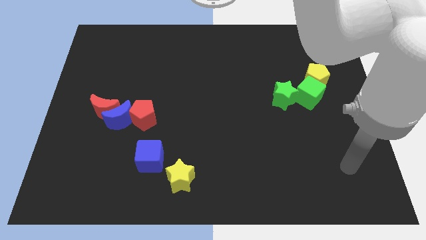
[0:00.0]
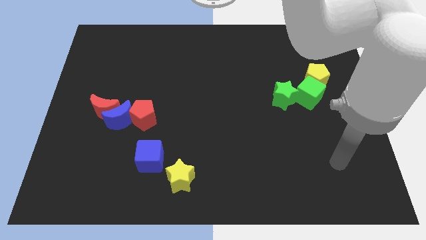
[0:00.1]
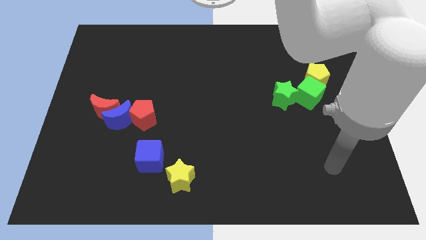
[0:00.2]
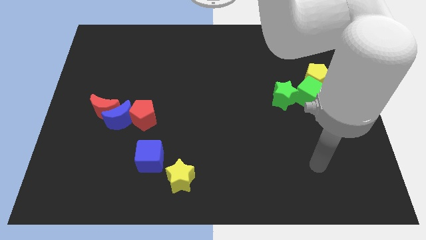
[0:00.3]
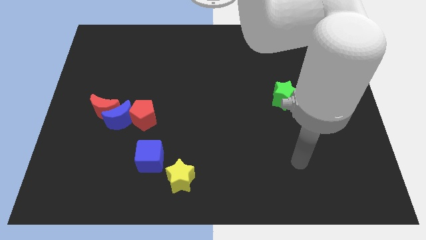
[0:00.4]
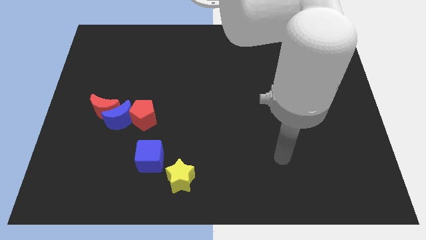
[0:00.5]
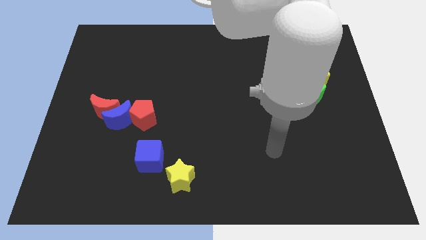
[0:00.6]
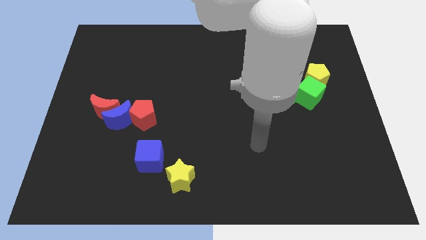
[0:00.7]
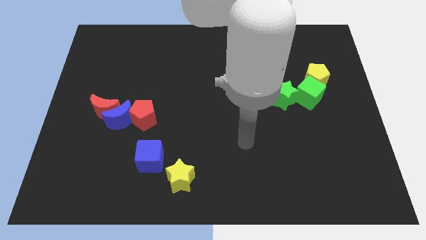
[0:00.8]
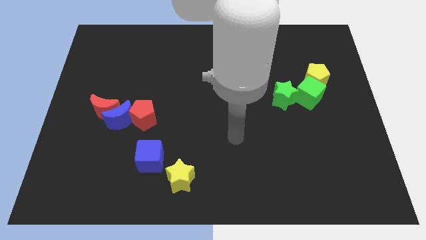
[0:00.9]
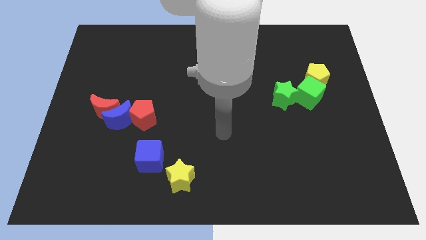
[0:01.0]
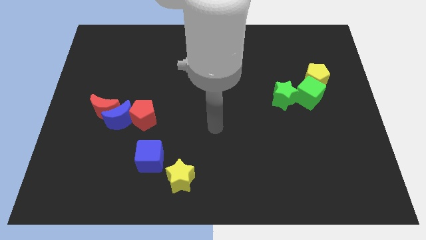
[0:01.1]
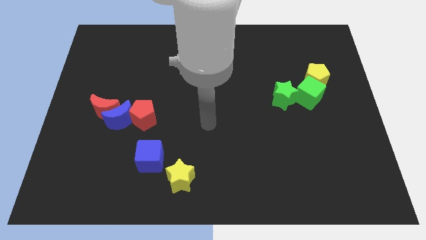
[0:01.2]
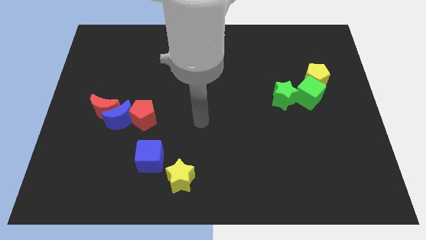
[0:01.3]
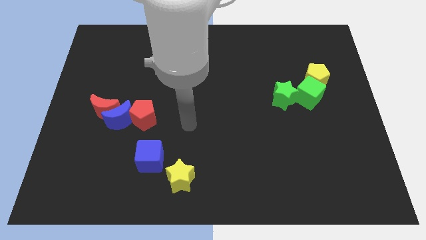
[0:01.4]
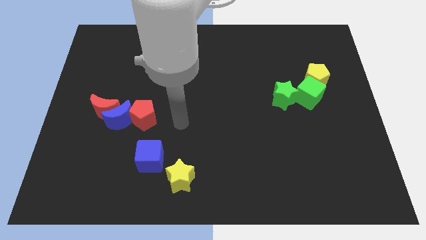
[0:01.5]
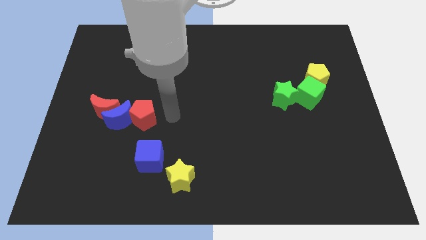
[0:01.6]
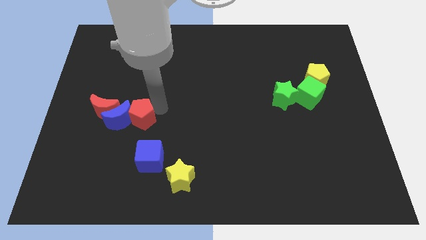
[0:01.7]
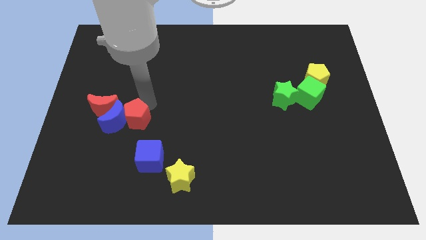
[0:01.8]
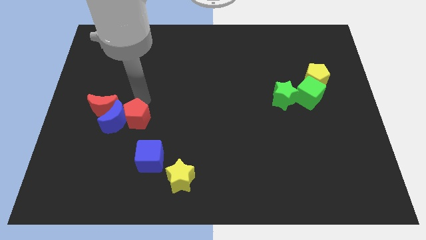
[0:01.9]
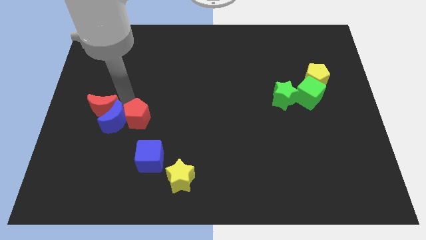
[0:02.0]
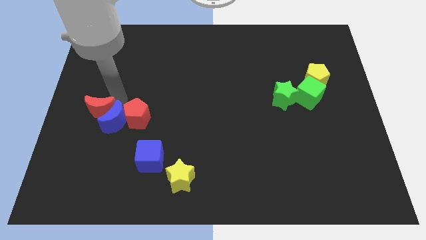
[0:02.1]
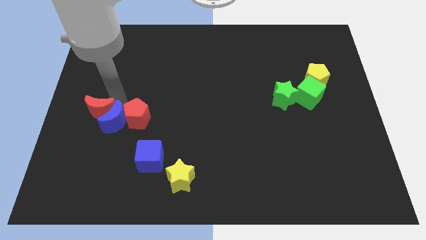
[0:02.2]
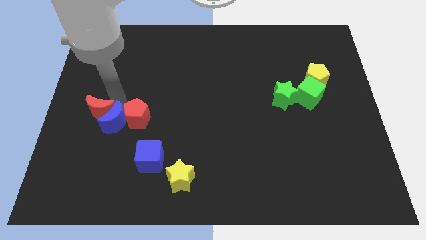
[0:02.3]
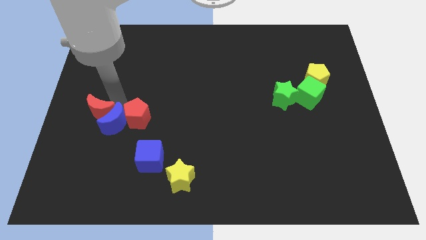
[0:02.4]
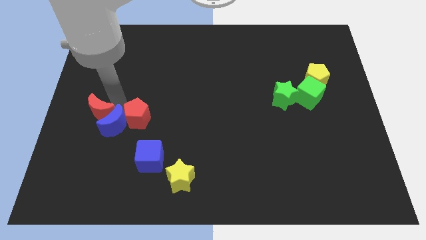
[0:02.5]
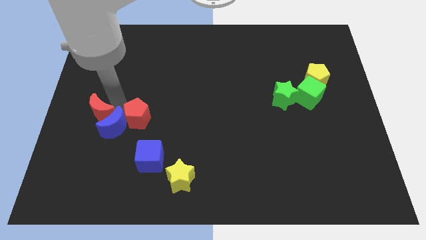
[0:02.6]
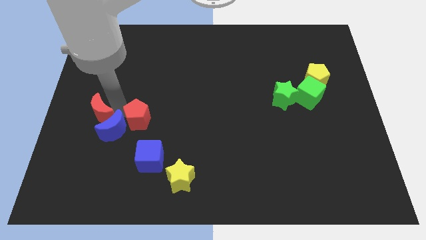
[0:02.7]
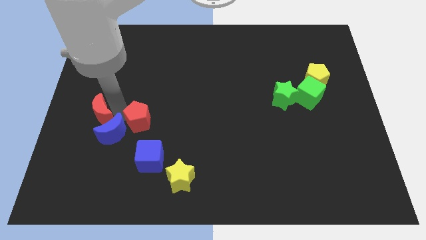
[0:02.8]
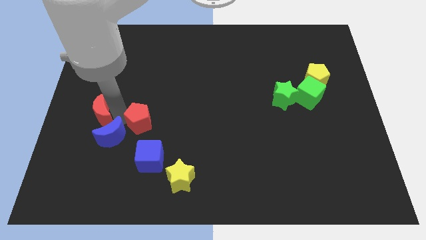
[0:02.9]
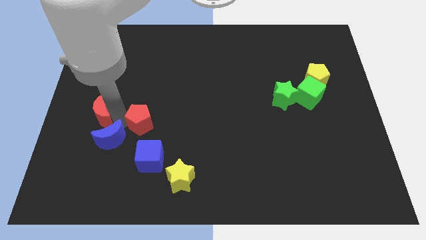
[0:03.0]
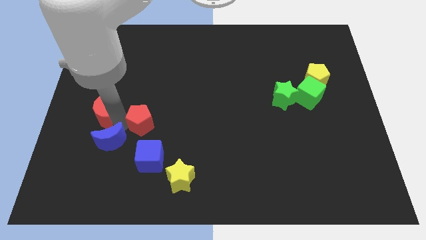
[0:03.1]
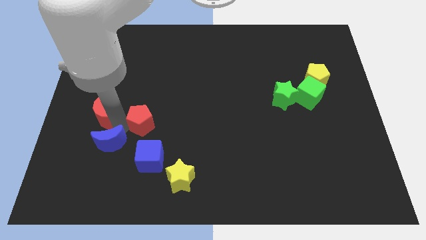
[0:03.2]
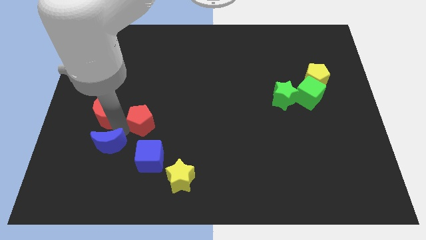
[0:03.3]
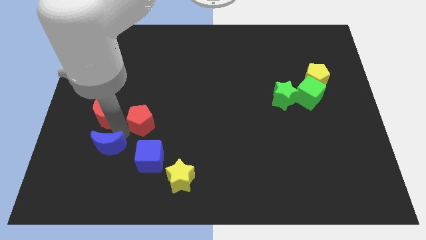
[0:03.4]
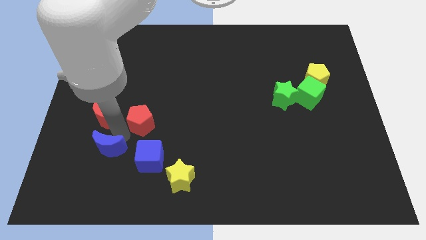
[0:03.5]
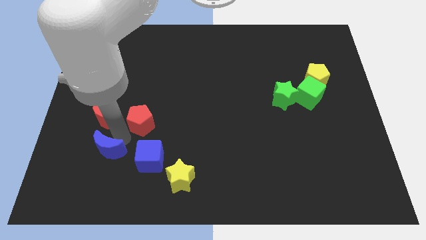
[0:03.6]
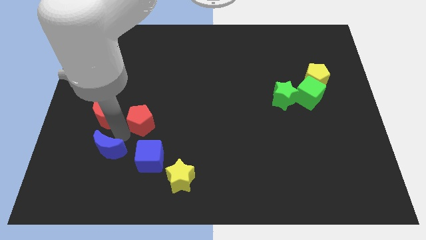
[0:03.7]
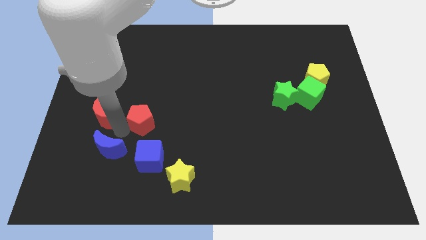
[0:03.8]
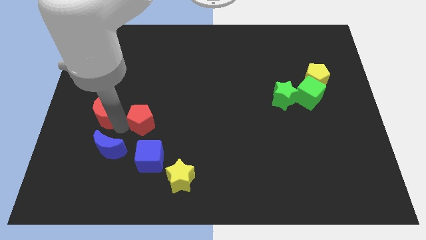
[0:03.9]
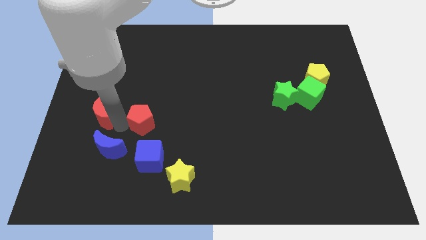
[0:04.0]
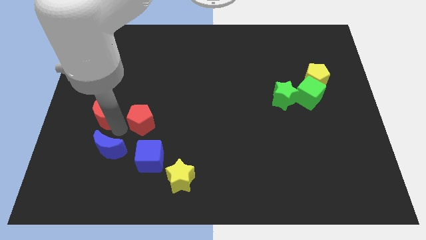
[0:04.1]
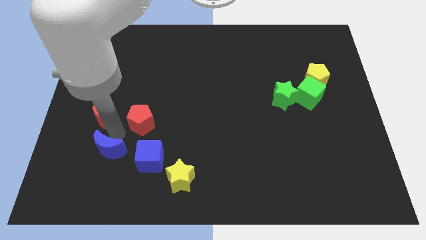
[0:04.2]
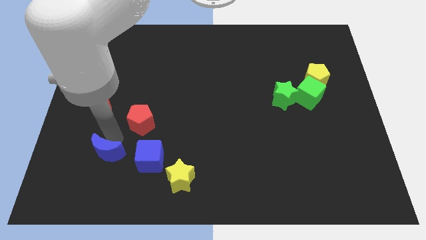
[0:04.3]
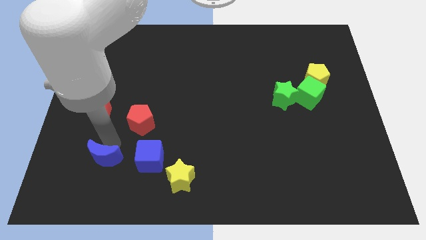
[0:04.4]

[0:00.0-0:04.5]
pull the blue moon apart from the red moon and red pentagon

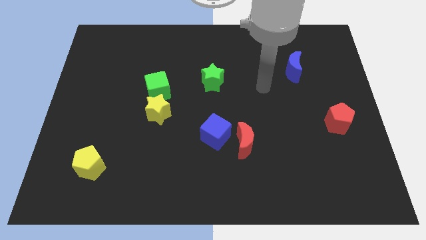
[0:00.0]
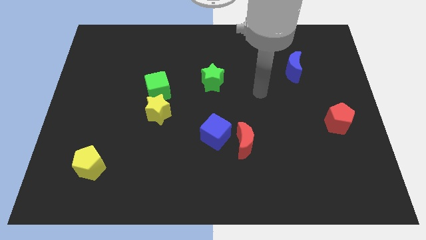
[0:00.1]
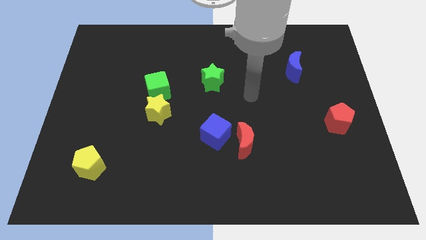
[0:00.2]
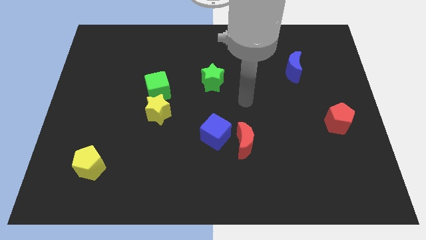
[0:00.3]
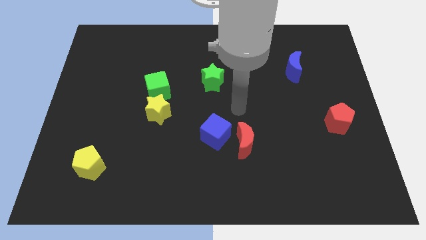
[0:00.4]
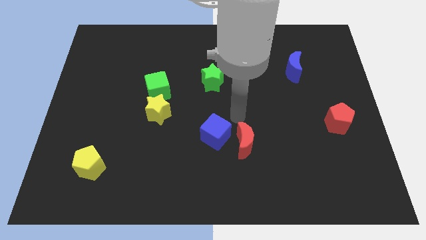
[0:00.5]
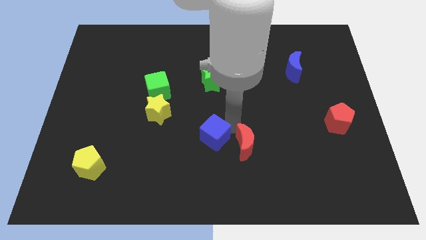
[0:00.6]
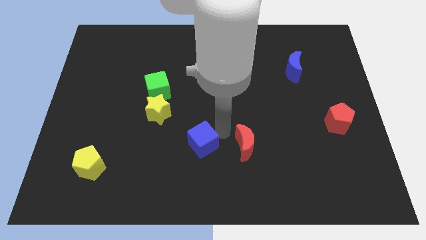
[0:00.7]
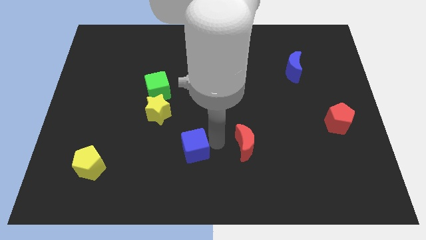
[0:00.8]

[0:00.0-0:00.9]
move the red moon away from the blue cube

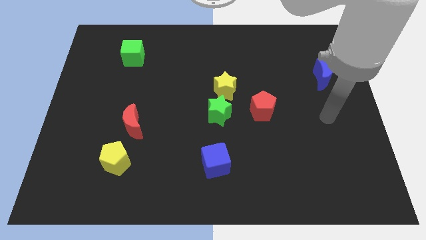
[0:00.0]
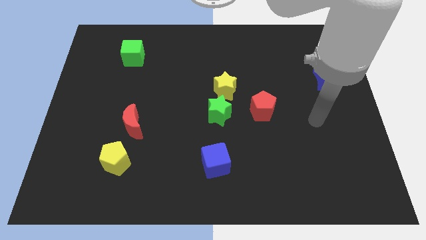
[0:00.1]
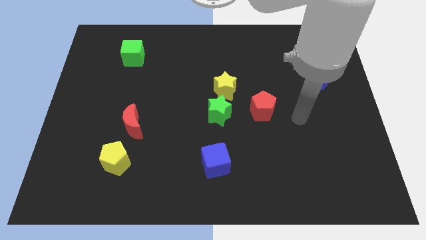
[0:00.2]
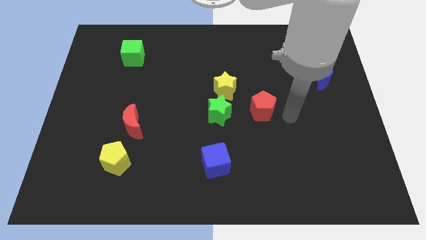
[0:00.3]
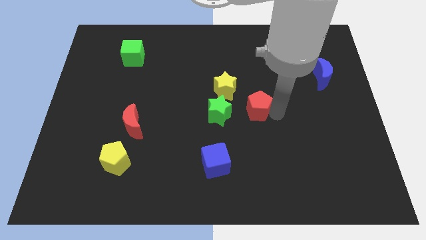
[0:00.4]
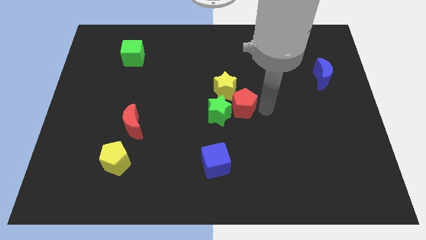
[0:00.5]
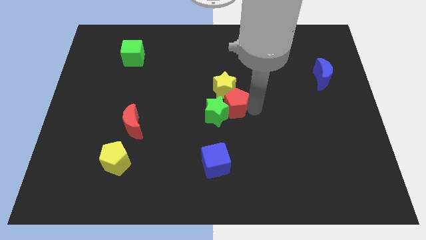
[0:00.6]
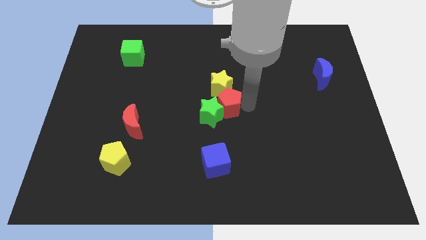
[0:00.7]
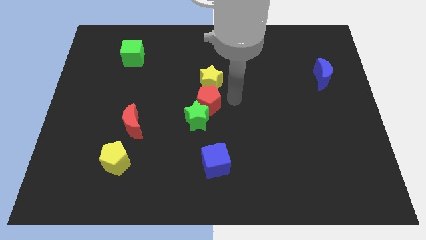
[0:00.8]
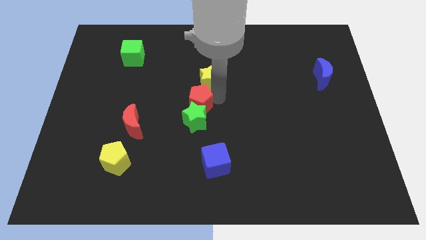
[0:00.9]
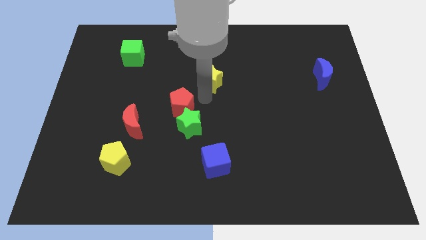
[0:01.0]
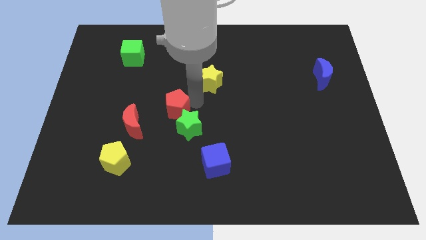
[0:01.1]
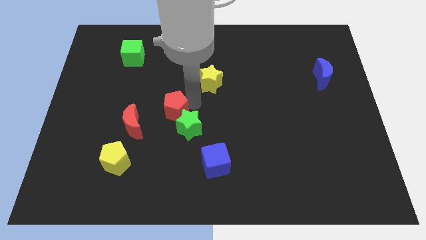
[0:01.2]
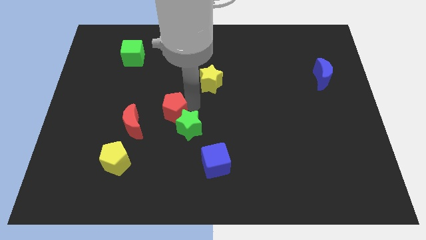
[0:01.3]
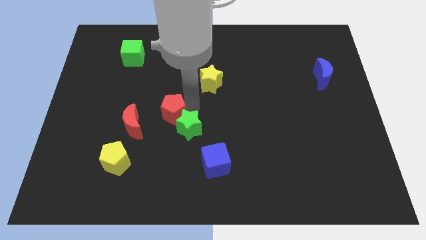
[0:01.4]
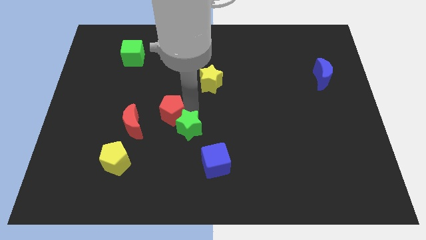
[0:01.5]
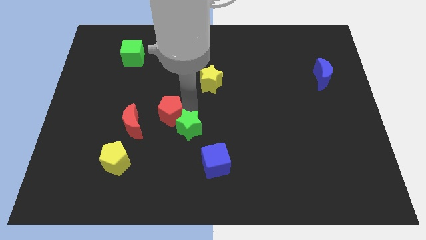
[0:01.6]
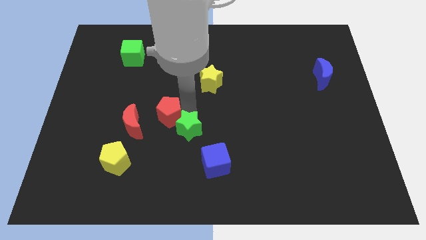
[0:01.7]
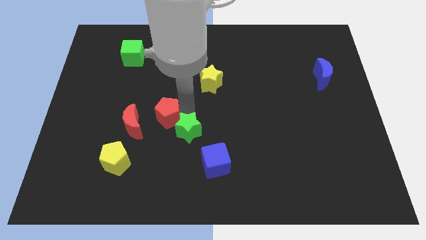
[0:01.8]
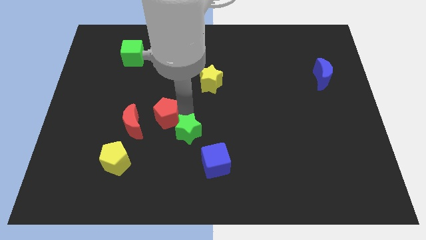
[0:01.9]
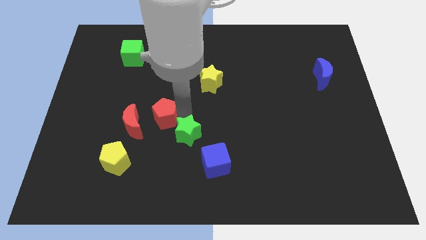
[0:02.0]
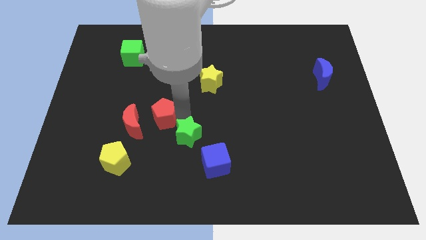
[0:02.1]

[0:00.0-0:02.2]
move the green star away from the yellow star and red pentagon

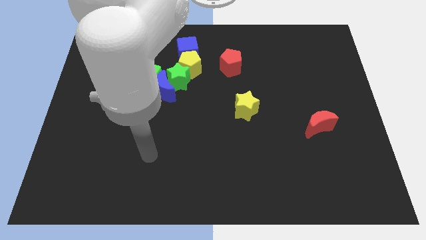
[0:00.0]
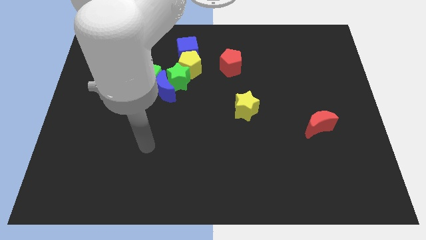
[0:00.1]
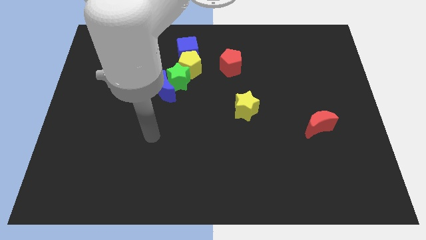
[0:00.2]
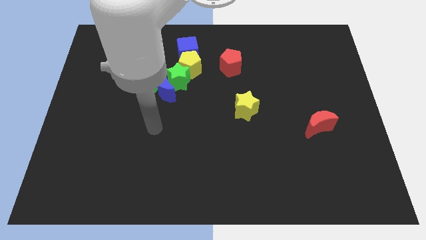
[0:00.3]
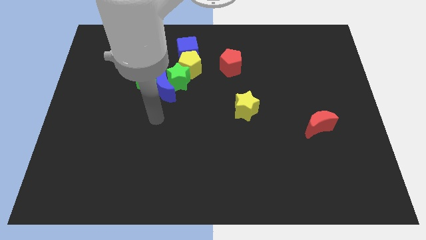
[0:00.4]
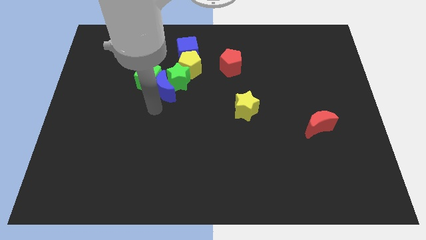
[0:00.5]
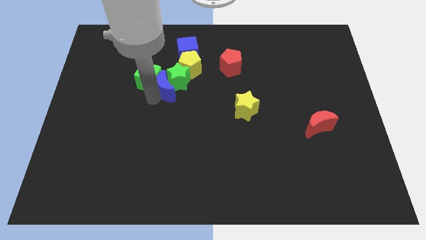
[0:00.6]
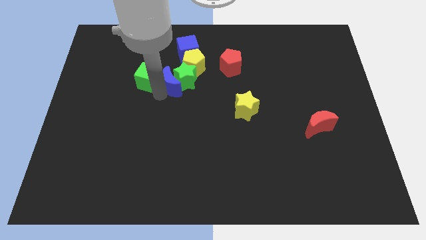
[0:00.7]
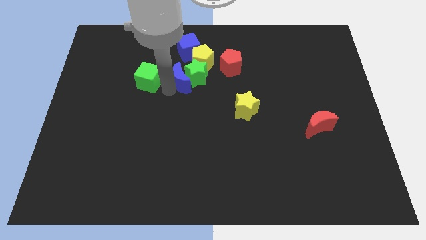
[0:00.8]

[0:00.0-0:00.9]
pull the green cube apart from the blue moon and green star

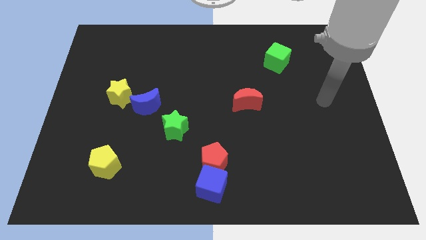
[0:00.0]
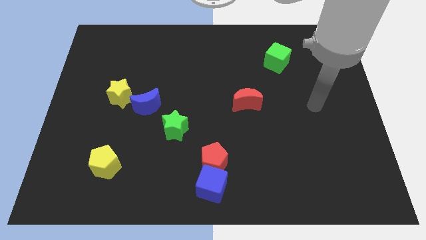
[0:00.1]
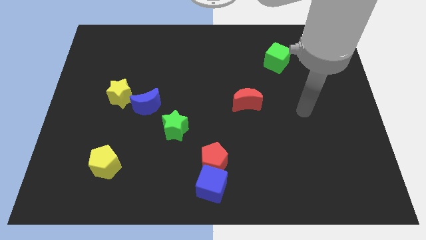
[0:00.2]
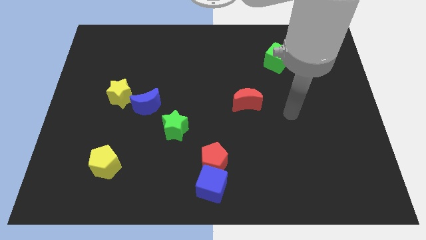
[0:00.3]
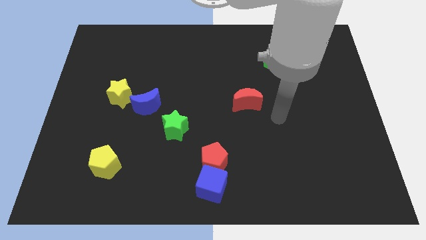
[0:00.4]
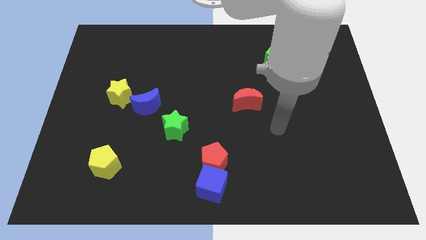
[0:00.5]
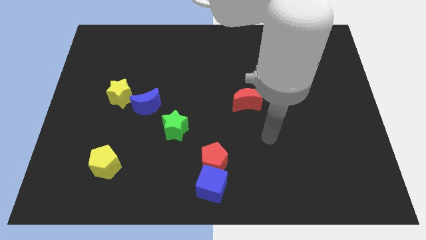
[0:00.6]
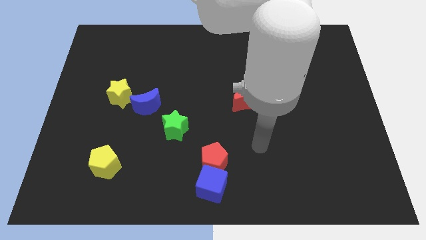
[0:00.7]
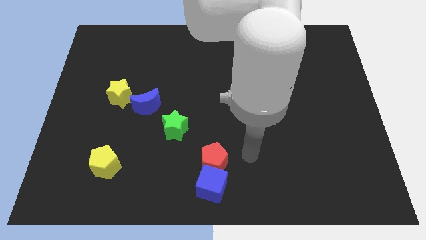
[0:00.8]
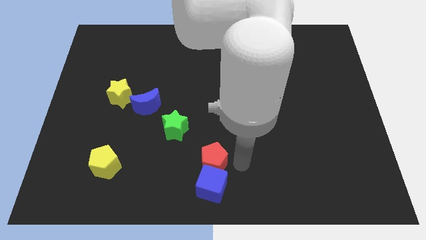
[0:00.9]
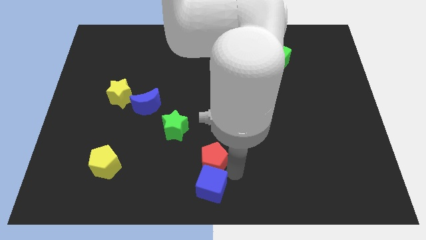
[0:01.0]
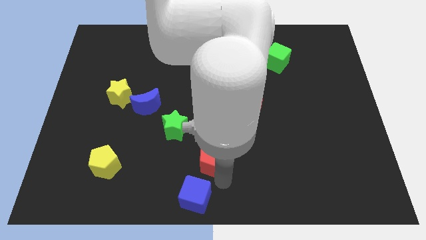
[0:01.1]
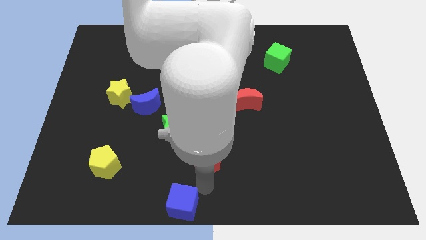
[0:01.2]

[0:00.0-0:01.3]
move the red pentagon away from the blue cube
